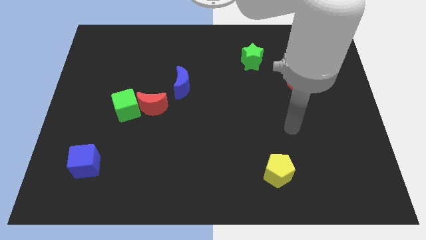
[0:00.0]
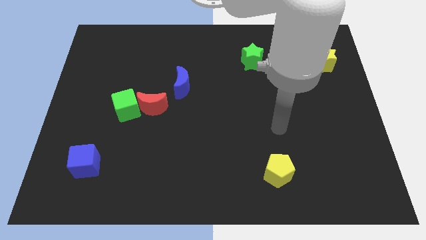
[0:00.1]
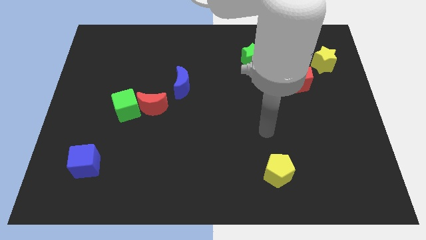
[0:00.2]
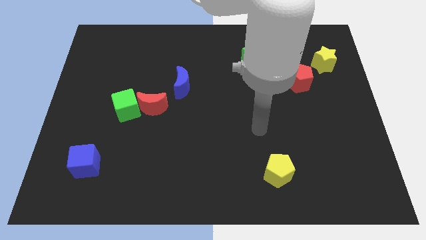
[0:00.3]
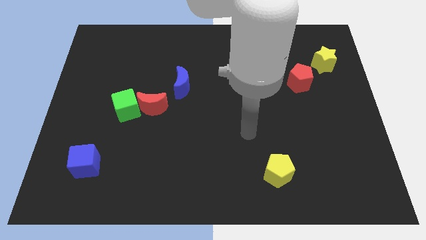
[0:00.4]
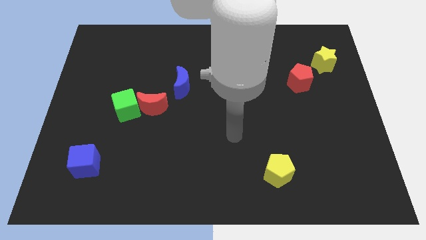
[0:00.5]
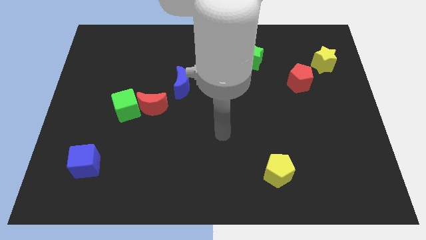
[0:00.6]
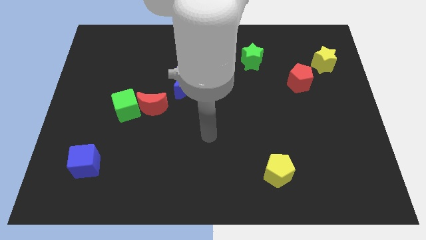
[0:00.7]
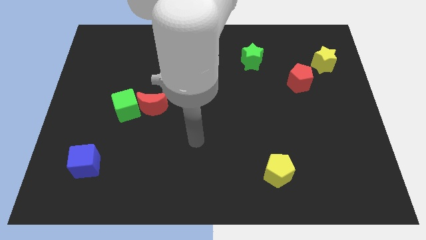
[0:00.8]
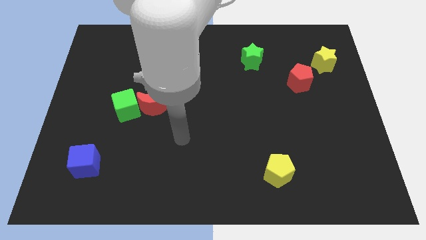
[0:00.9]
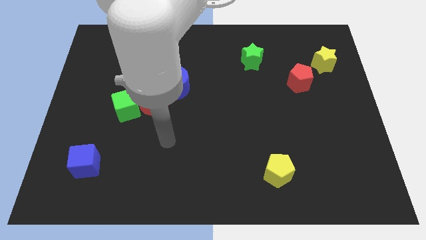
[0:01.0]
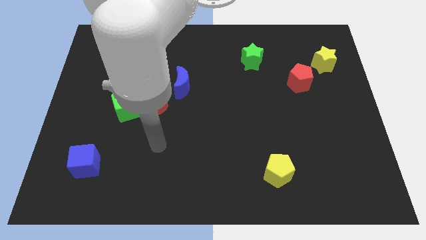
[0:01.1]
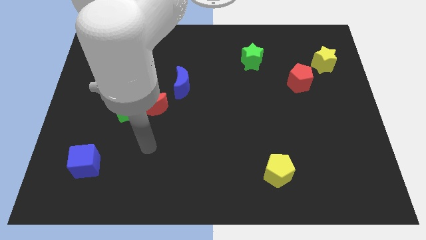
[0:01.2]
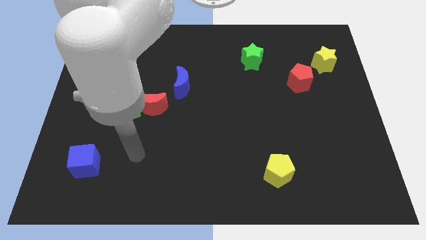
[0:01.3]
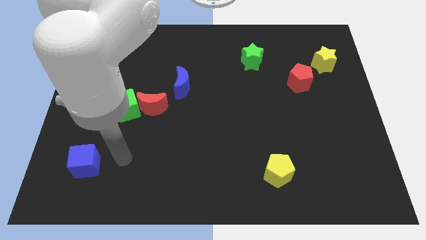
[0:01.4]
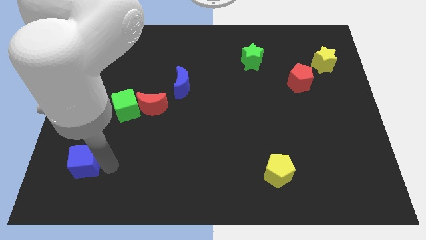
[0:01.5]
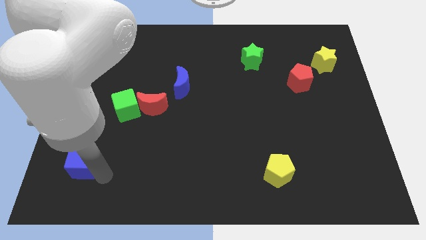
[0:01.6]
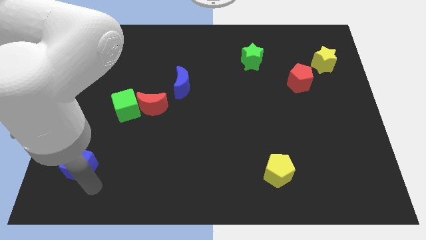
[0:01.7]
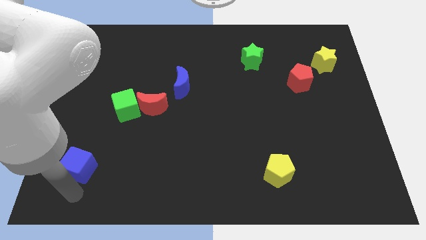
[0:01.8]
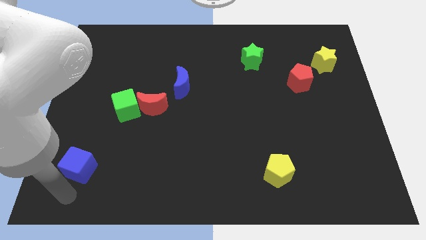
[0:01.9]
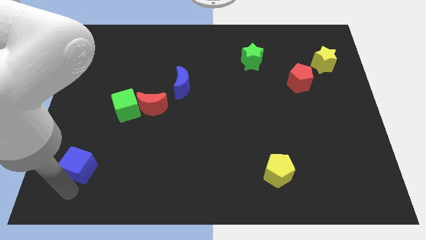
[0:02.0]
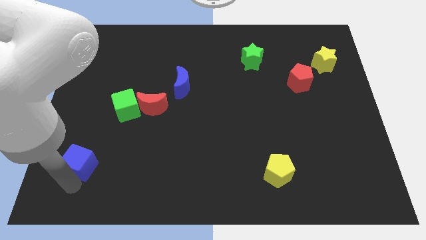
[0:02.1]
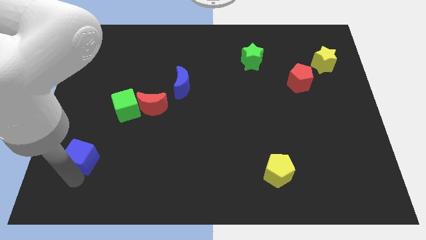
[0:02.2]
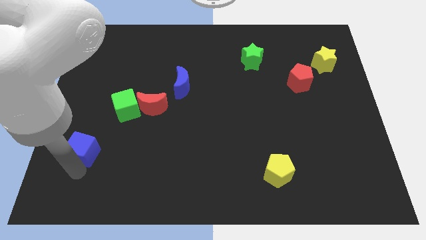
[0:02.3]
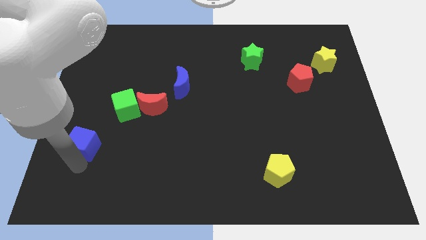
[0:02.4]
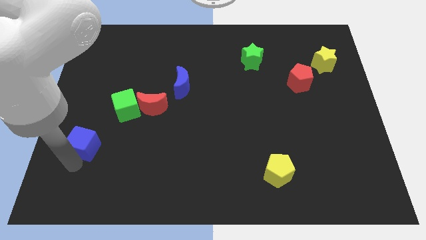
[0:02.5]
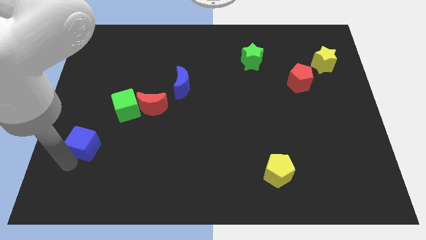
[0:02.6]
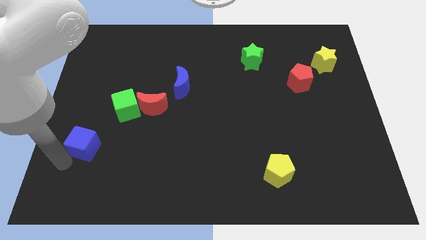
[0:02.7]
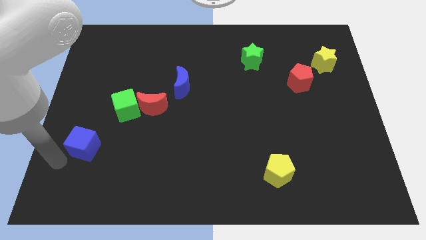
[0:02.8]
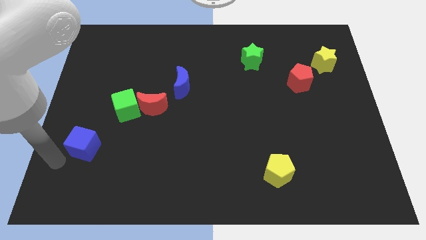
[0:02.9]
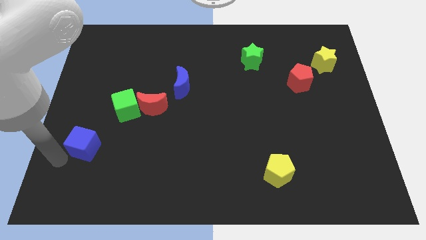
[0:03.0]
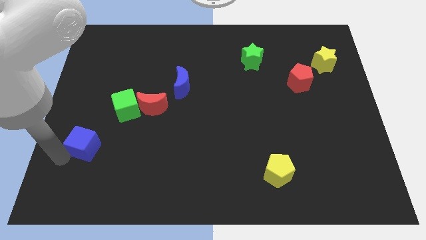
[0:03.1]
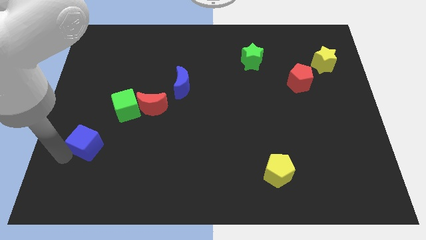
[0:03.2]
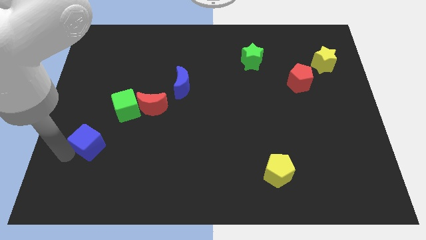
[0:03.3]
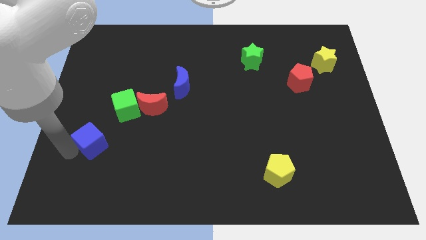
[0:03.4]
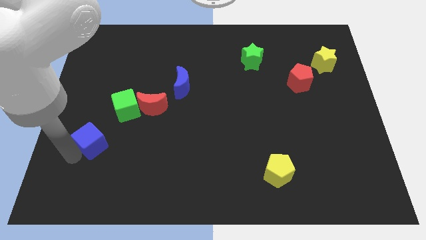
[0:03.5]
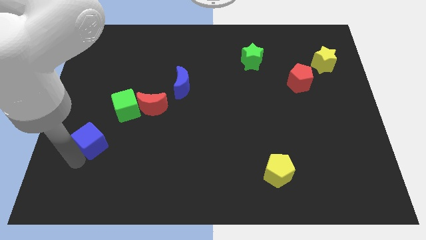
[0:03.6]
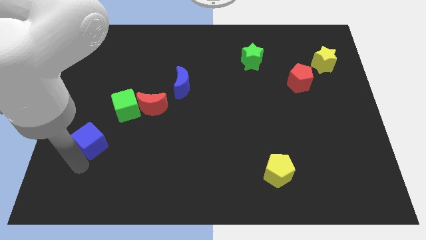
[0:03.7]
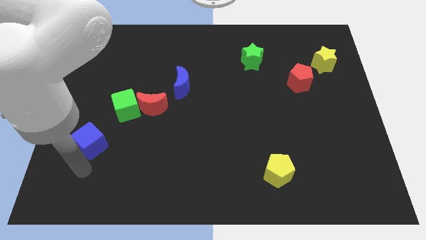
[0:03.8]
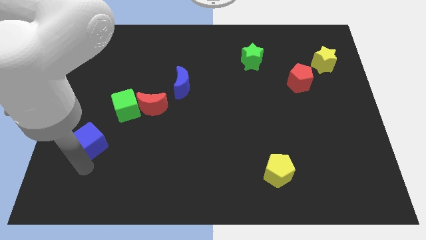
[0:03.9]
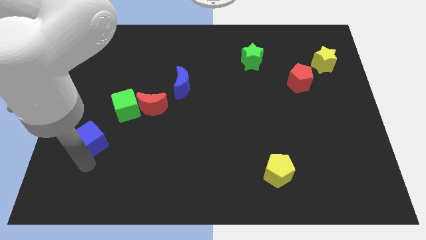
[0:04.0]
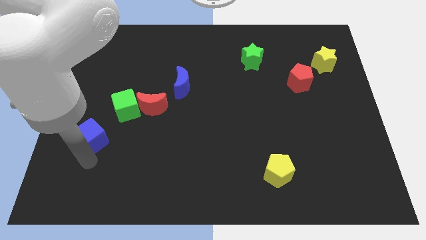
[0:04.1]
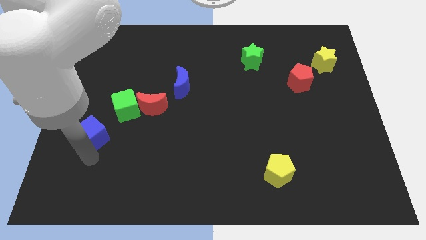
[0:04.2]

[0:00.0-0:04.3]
slide the blue cube slightly upwards

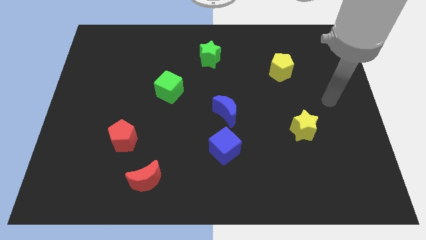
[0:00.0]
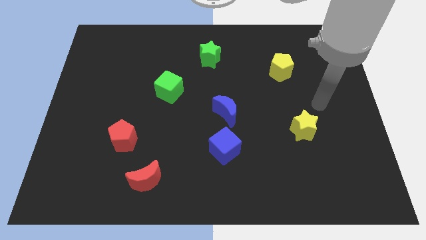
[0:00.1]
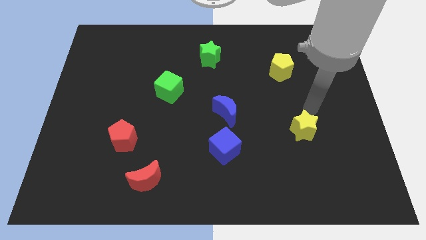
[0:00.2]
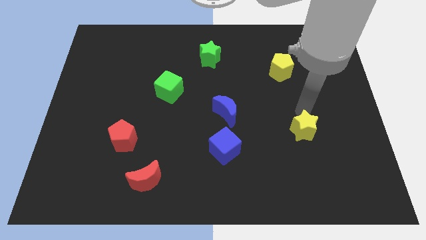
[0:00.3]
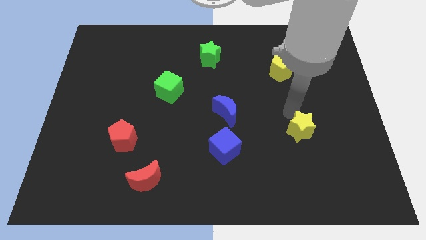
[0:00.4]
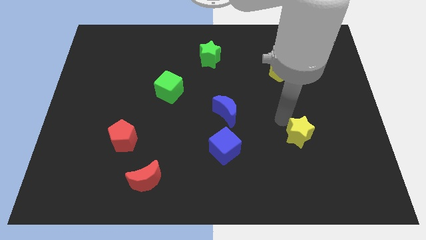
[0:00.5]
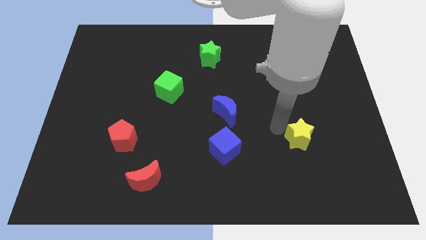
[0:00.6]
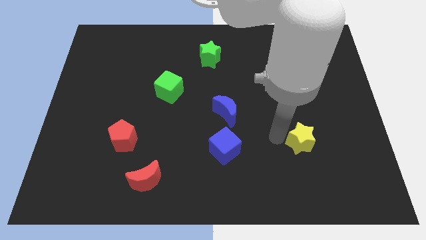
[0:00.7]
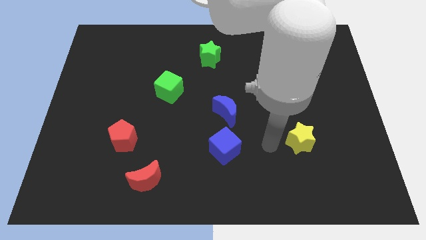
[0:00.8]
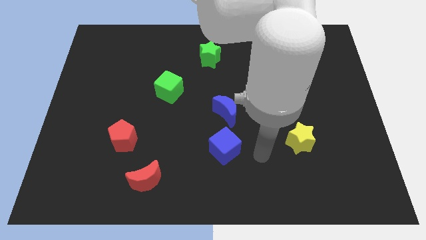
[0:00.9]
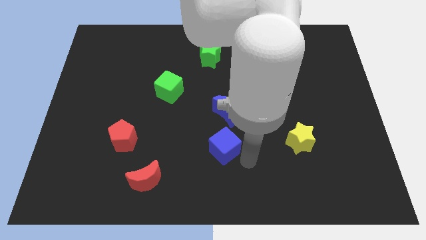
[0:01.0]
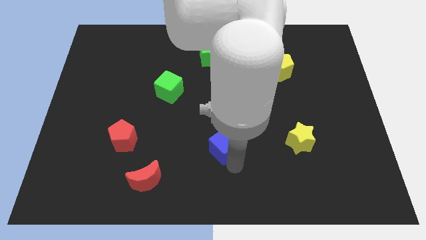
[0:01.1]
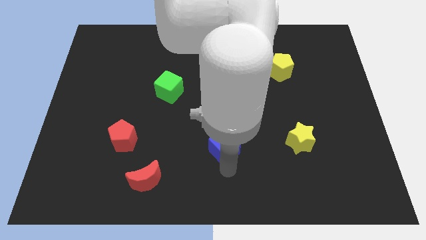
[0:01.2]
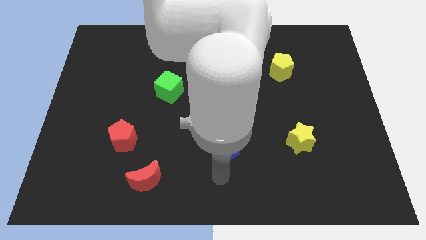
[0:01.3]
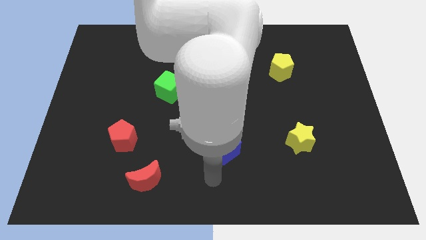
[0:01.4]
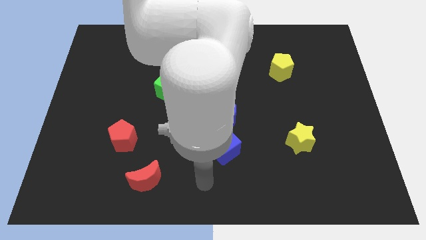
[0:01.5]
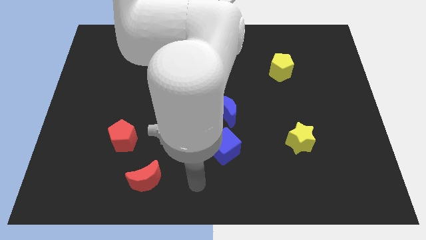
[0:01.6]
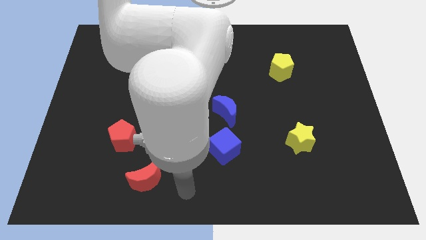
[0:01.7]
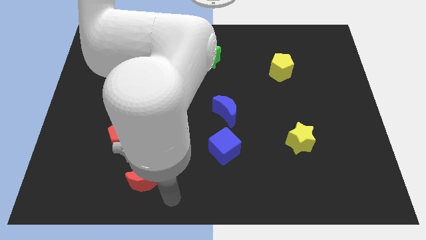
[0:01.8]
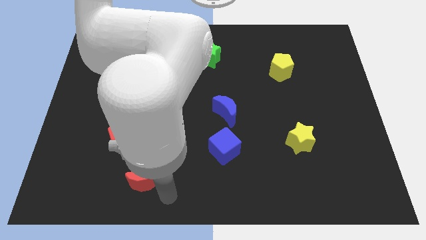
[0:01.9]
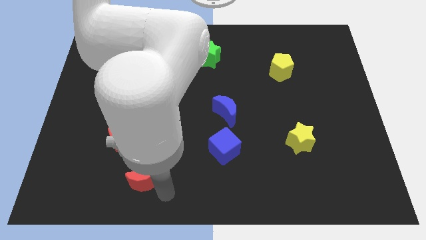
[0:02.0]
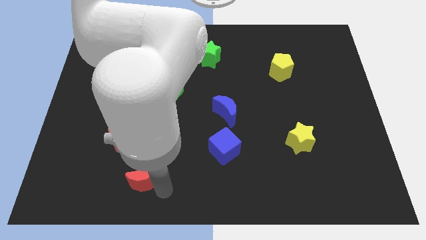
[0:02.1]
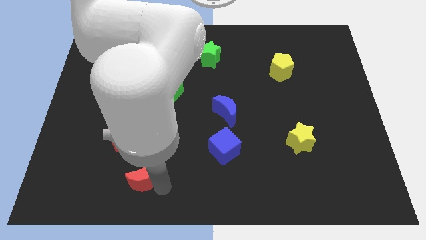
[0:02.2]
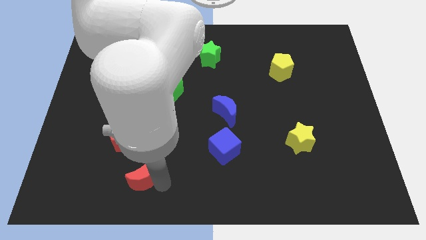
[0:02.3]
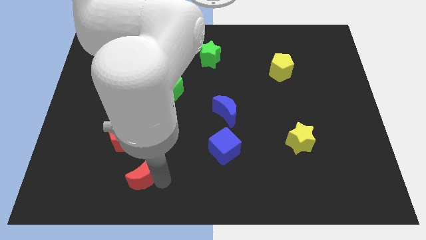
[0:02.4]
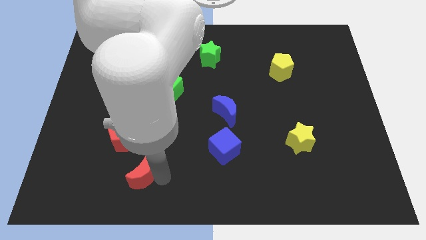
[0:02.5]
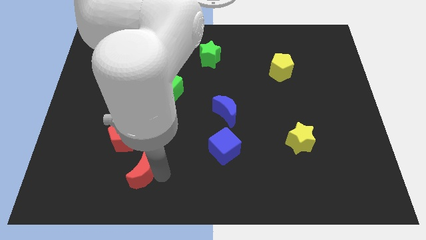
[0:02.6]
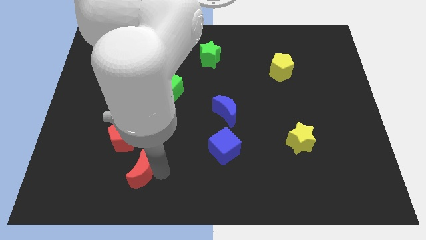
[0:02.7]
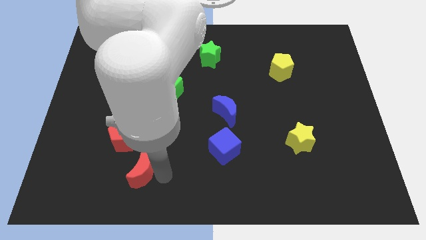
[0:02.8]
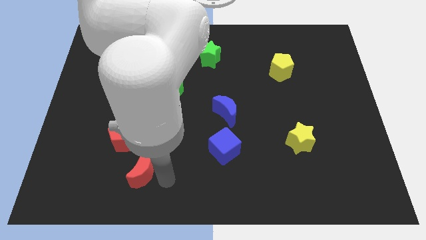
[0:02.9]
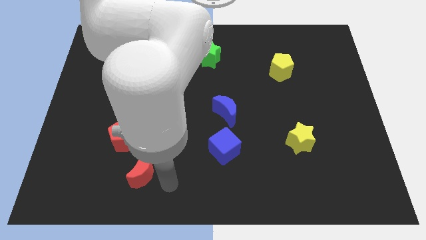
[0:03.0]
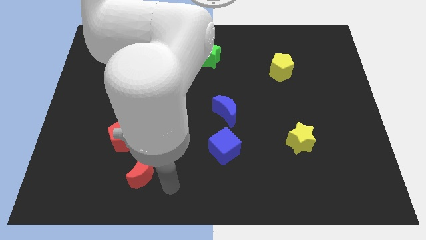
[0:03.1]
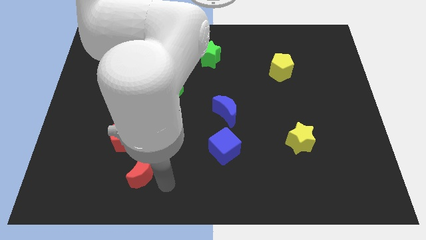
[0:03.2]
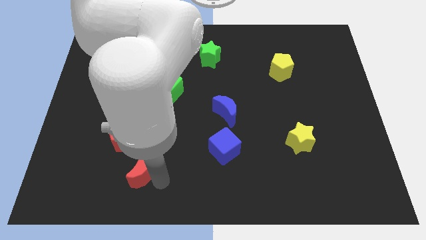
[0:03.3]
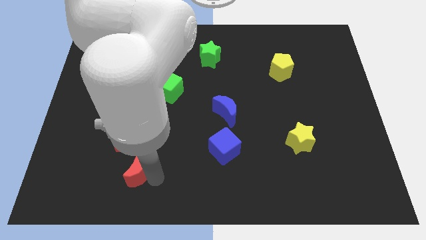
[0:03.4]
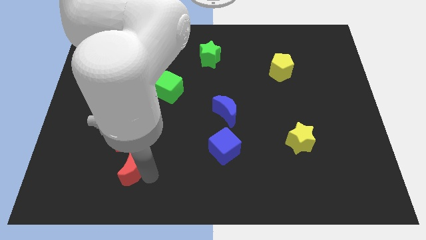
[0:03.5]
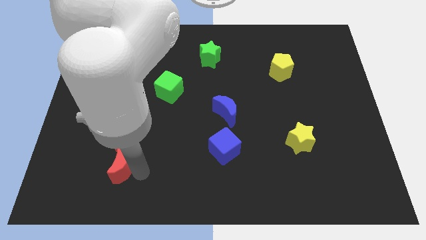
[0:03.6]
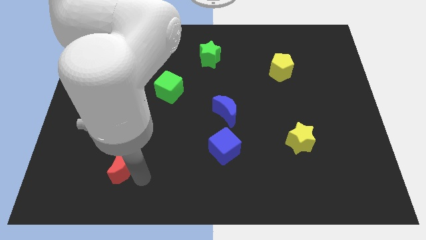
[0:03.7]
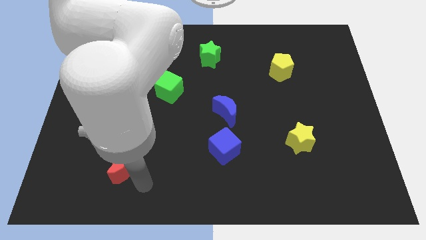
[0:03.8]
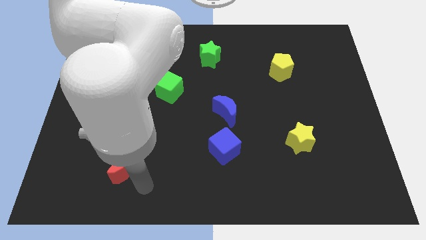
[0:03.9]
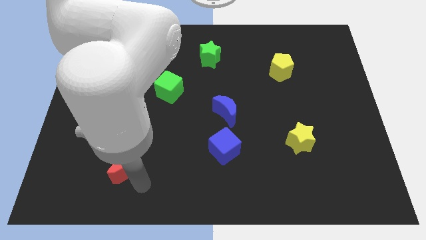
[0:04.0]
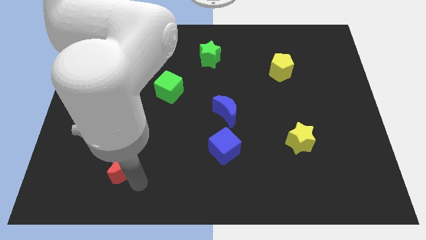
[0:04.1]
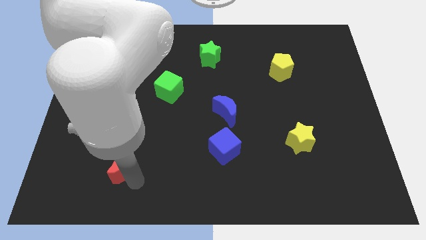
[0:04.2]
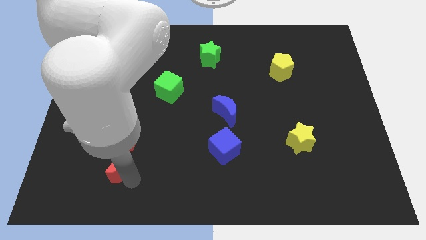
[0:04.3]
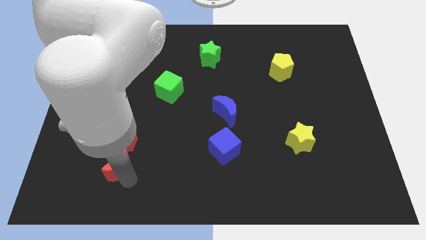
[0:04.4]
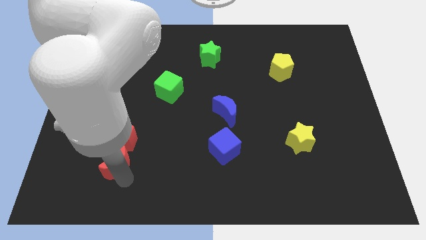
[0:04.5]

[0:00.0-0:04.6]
slightly push the red moon diagonally upwards and left
